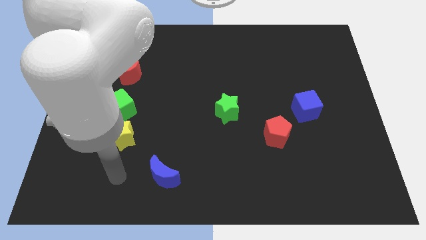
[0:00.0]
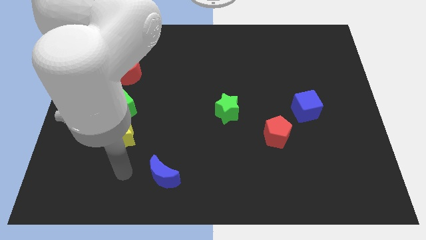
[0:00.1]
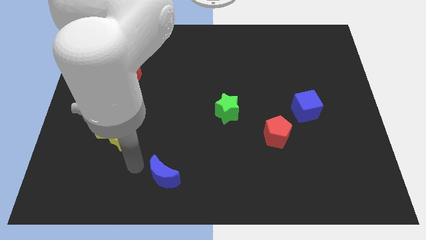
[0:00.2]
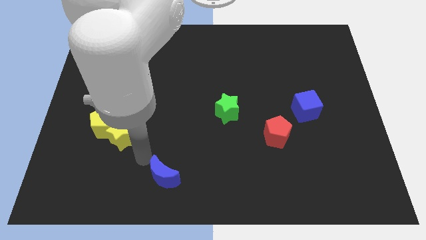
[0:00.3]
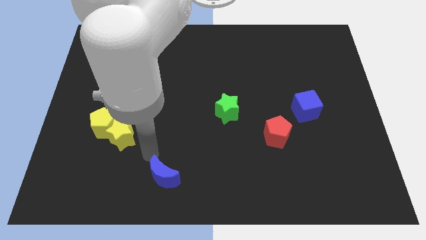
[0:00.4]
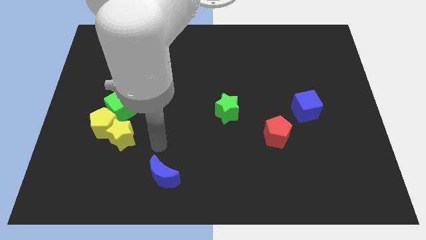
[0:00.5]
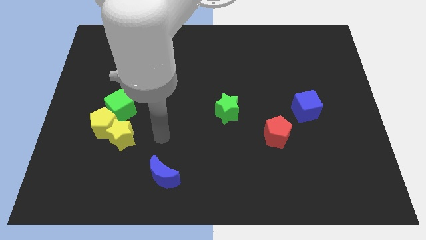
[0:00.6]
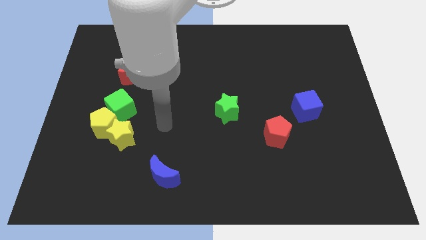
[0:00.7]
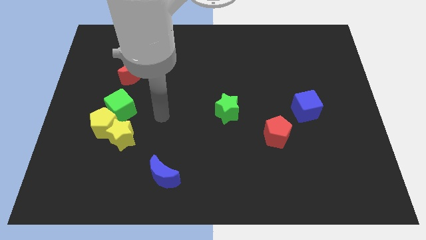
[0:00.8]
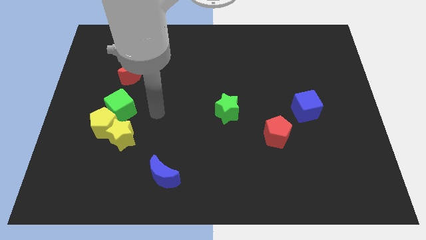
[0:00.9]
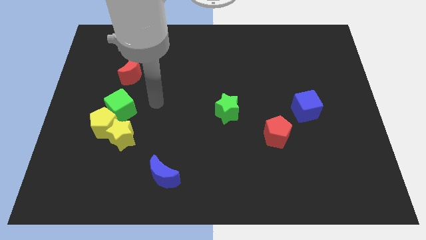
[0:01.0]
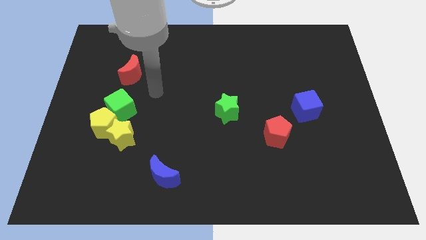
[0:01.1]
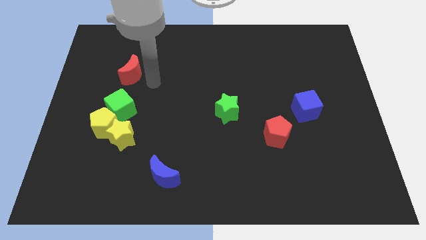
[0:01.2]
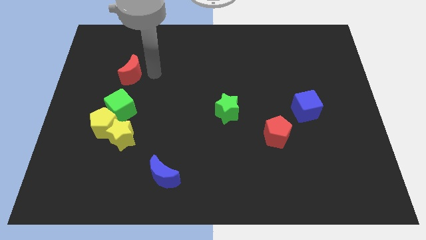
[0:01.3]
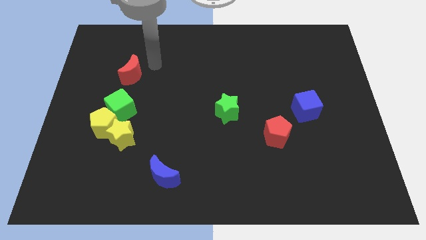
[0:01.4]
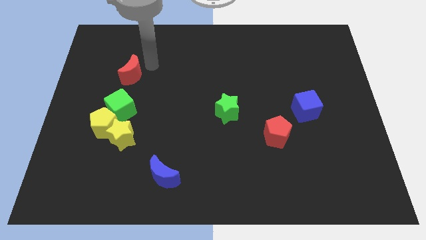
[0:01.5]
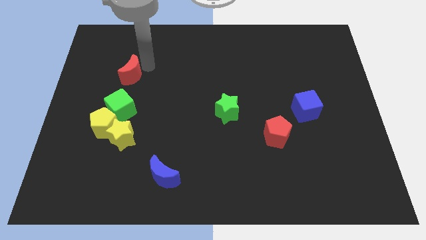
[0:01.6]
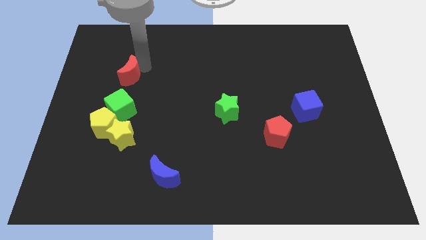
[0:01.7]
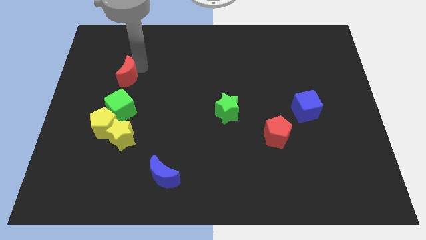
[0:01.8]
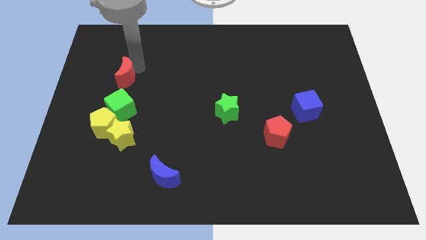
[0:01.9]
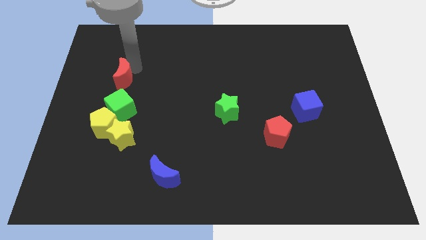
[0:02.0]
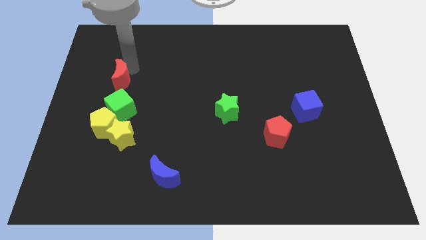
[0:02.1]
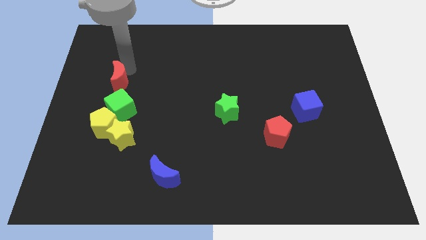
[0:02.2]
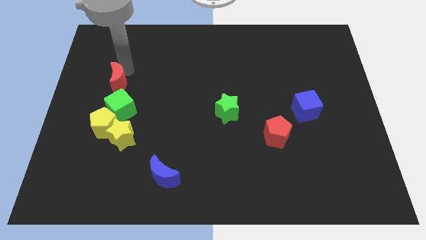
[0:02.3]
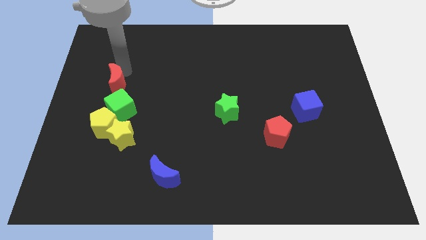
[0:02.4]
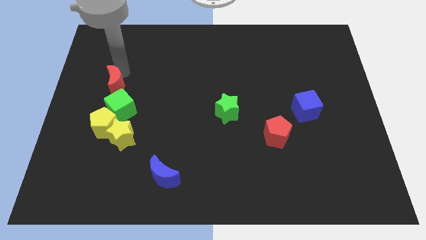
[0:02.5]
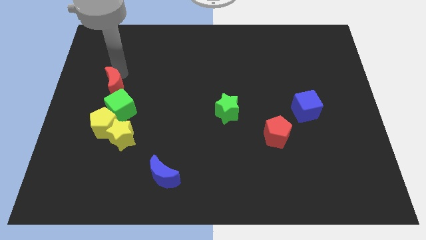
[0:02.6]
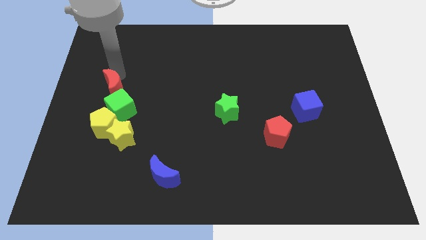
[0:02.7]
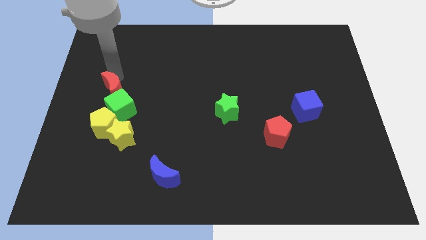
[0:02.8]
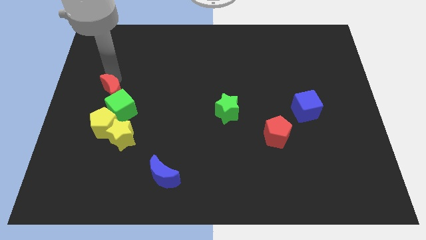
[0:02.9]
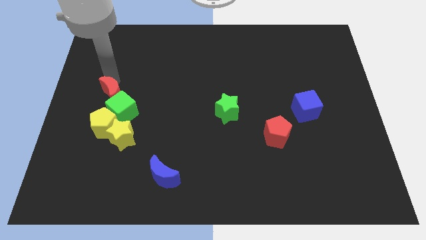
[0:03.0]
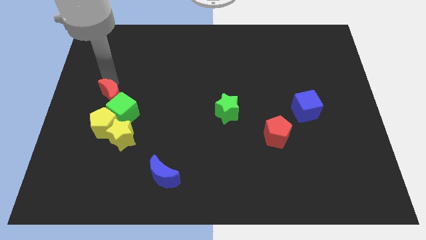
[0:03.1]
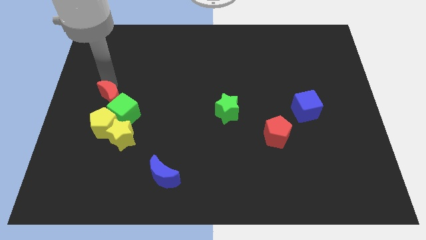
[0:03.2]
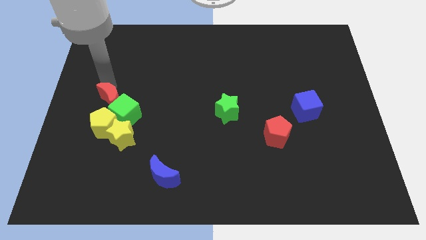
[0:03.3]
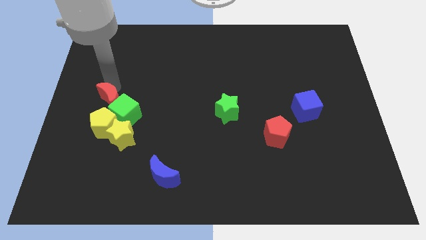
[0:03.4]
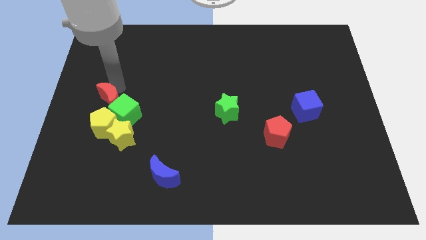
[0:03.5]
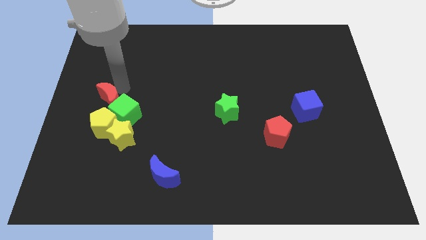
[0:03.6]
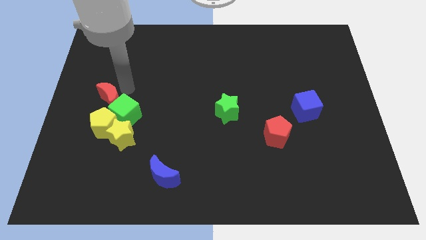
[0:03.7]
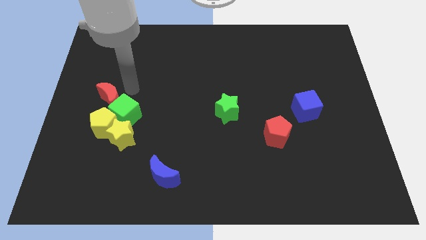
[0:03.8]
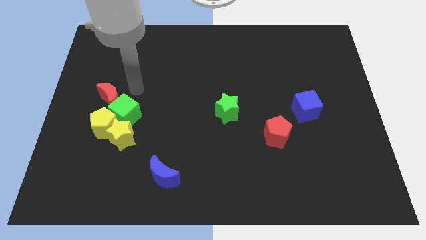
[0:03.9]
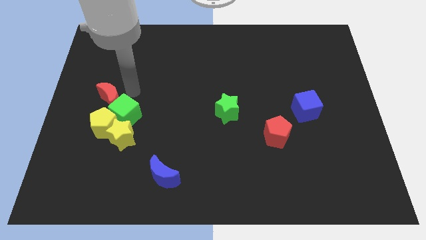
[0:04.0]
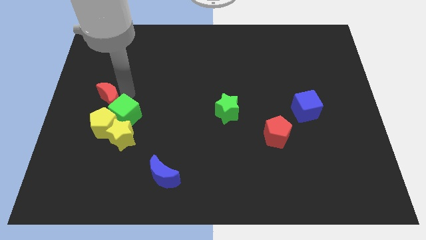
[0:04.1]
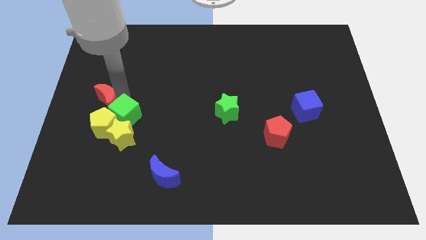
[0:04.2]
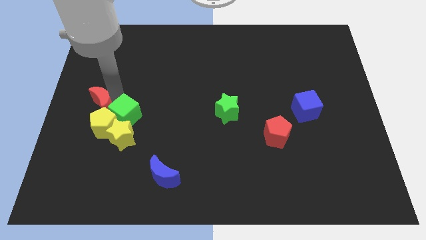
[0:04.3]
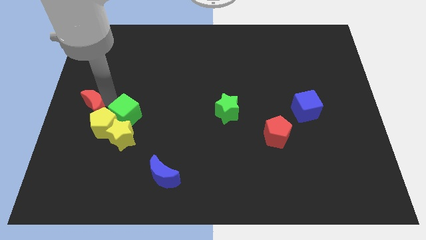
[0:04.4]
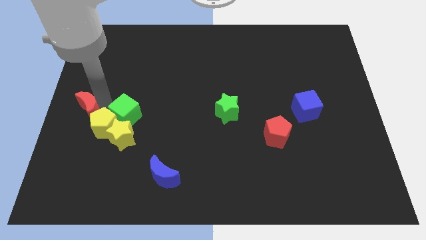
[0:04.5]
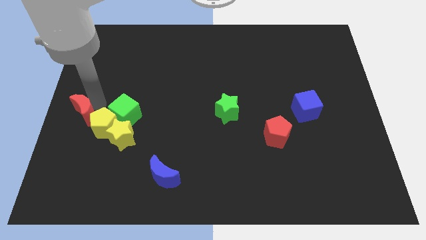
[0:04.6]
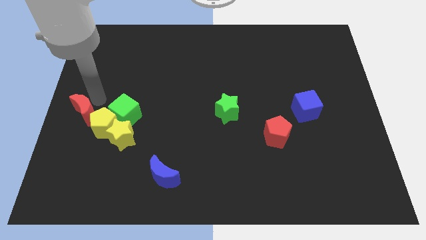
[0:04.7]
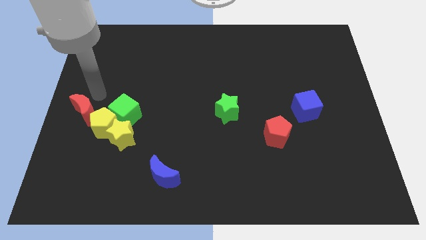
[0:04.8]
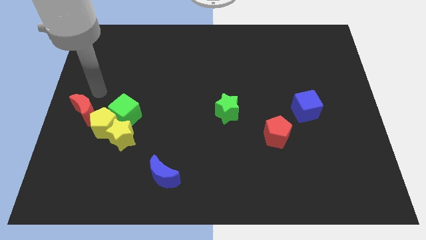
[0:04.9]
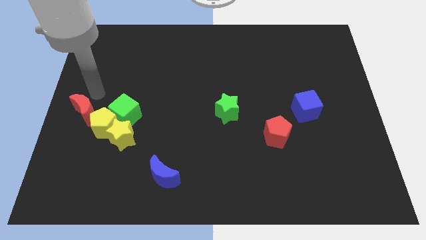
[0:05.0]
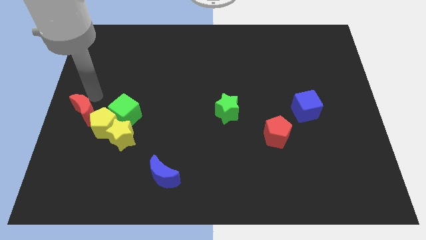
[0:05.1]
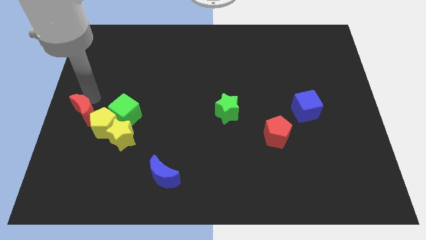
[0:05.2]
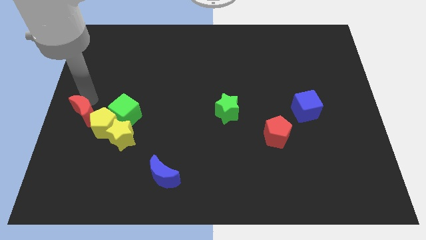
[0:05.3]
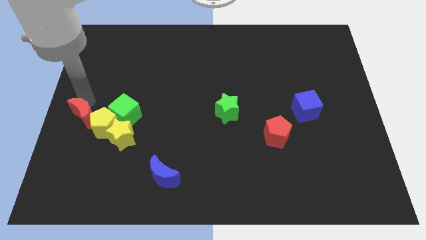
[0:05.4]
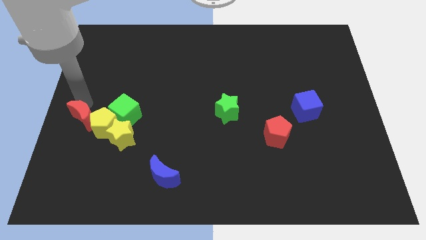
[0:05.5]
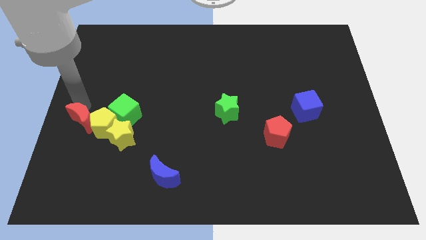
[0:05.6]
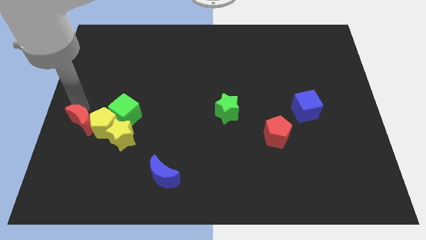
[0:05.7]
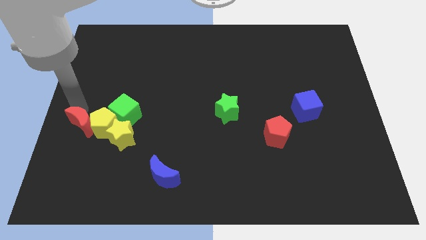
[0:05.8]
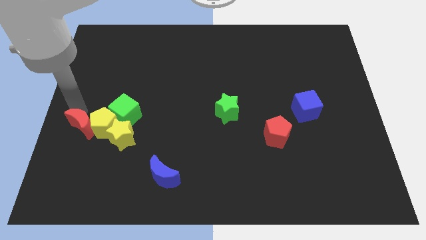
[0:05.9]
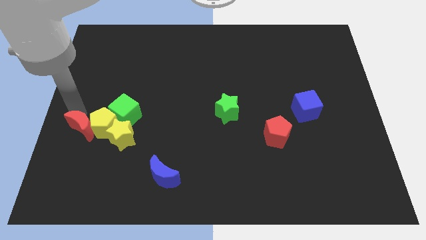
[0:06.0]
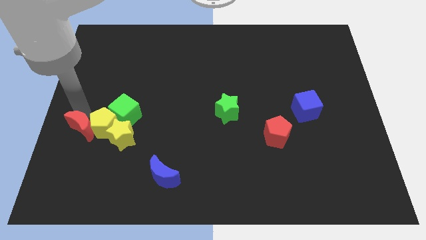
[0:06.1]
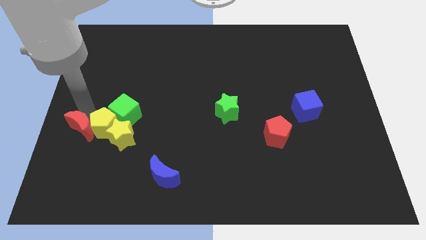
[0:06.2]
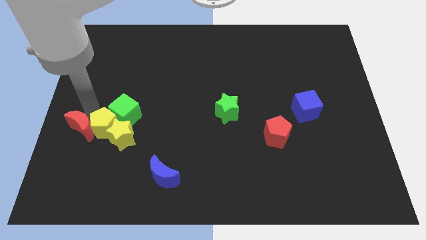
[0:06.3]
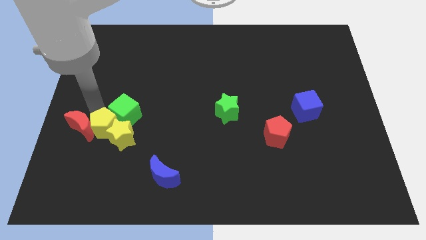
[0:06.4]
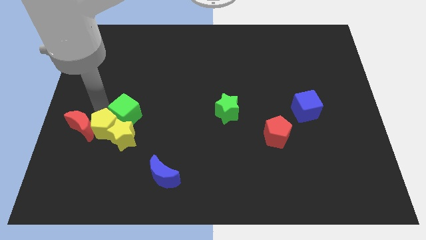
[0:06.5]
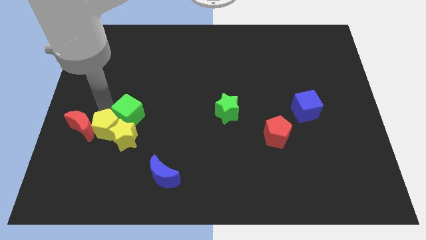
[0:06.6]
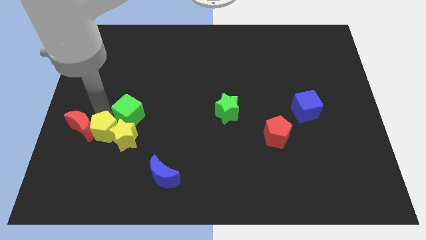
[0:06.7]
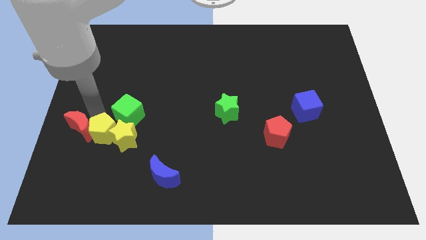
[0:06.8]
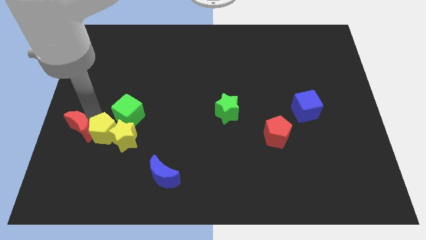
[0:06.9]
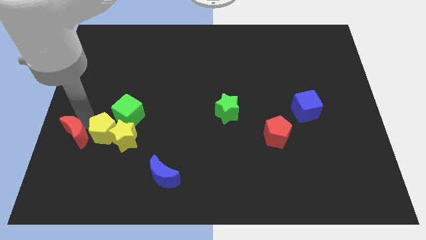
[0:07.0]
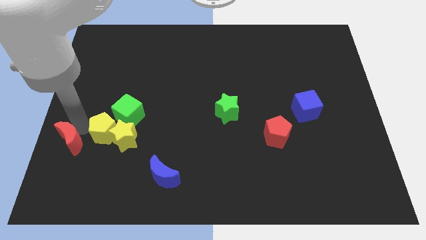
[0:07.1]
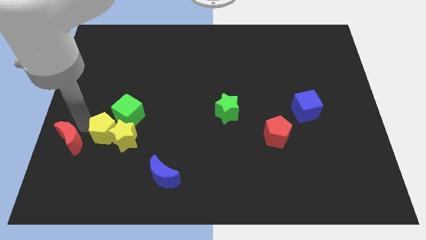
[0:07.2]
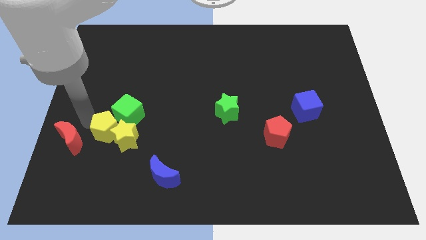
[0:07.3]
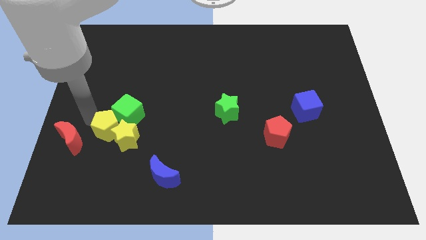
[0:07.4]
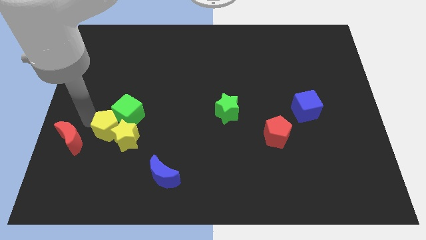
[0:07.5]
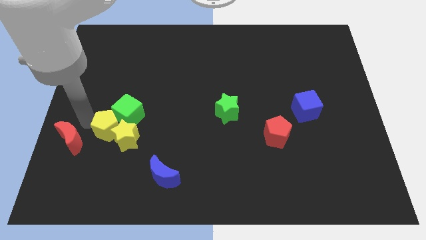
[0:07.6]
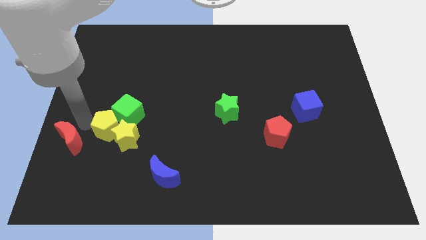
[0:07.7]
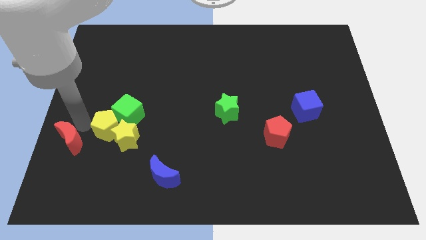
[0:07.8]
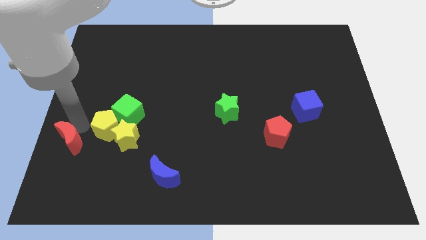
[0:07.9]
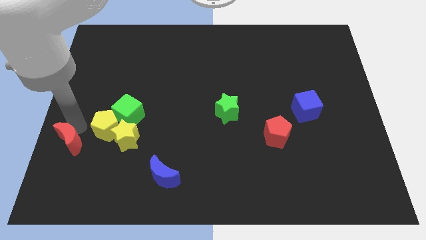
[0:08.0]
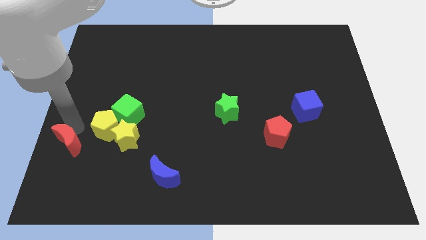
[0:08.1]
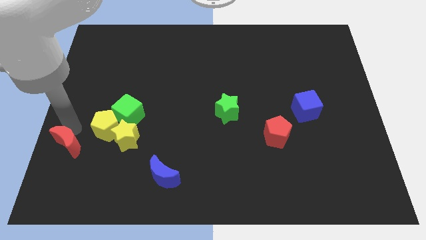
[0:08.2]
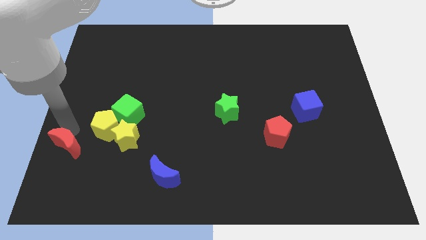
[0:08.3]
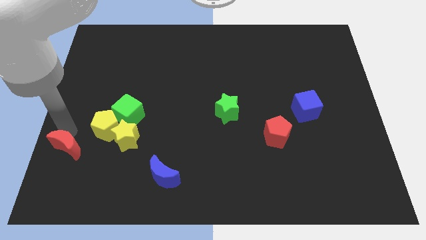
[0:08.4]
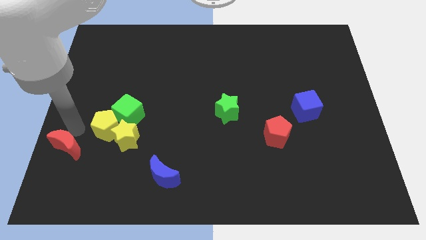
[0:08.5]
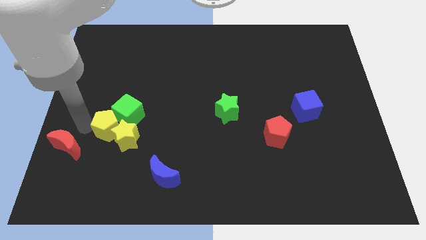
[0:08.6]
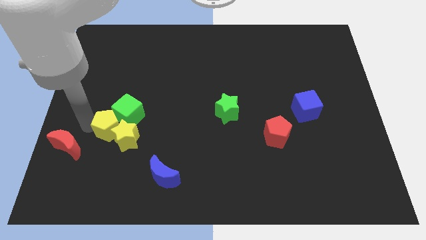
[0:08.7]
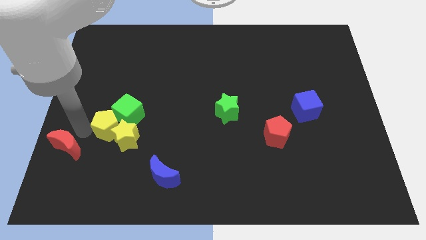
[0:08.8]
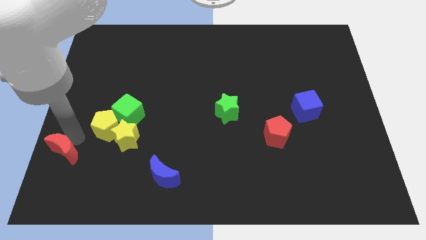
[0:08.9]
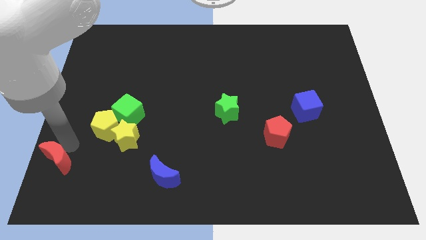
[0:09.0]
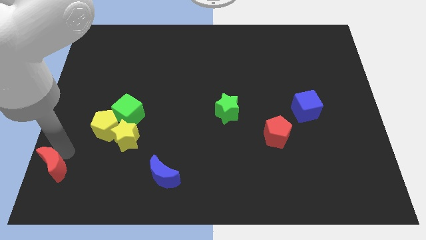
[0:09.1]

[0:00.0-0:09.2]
put the red moon to the bottom left corner
